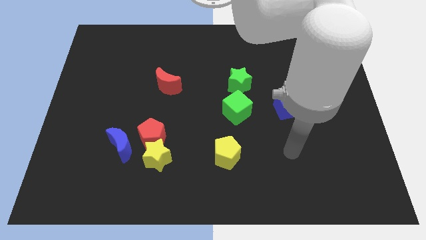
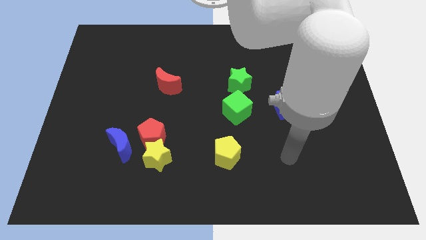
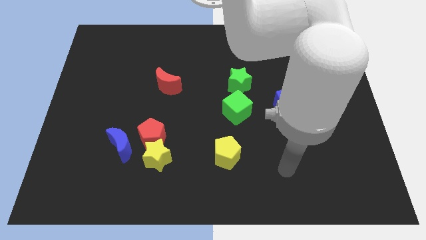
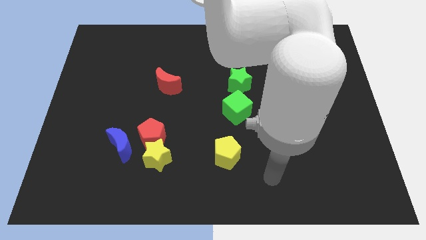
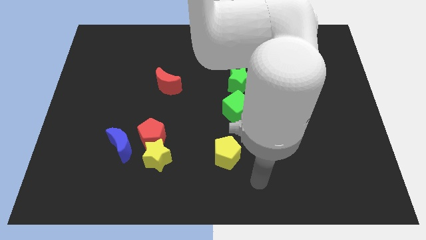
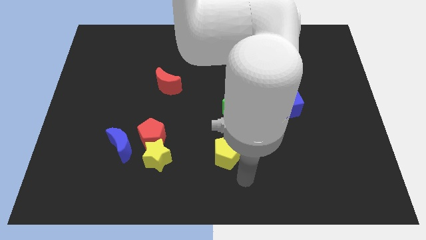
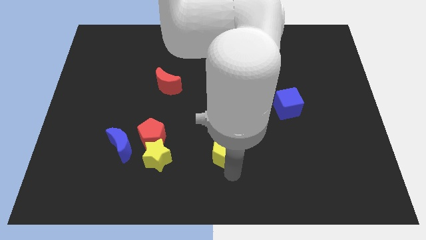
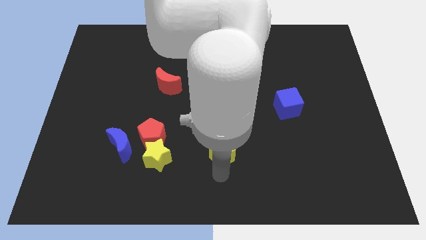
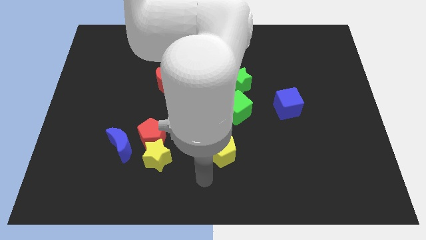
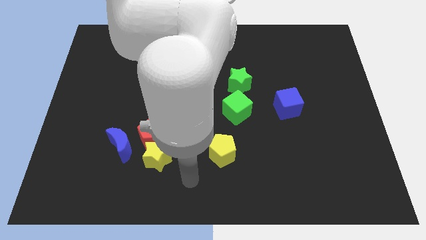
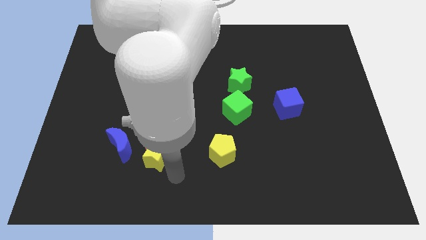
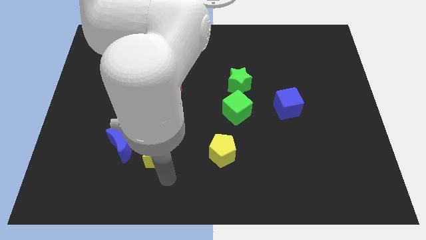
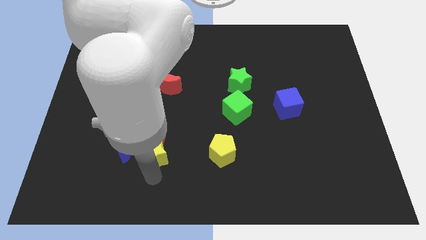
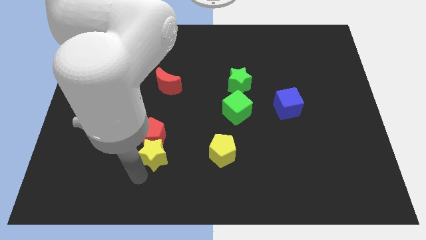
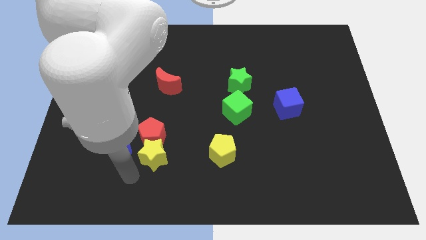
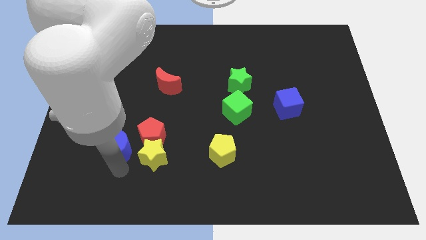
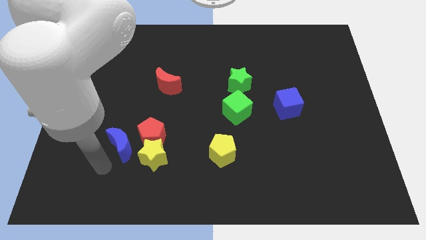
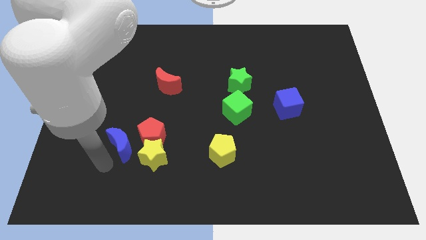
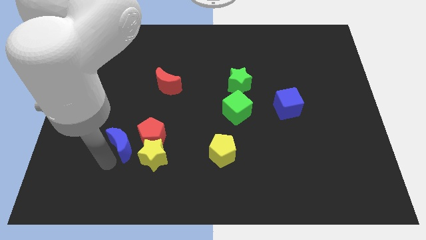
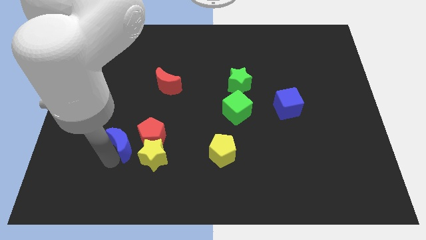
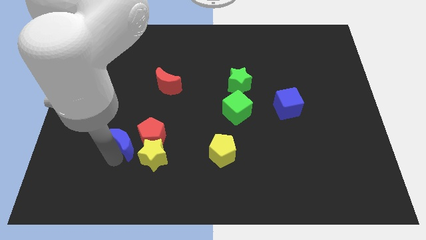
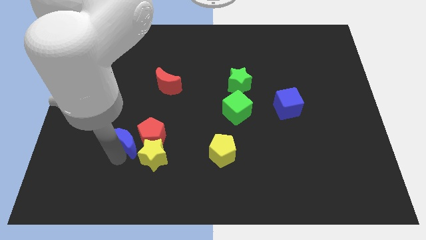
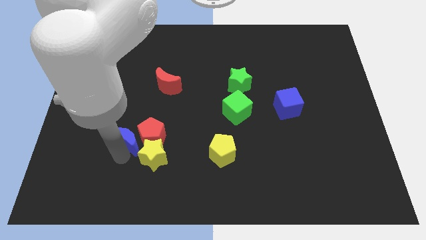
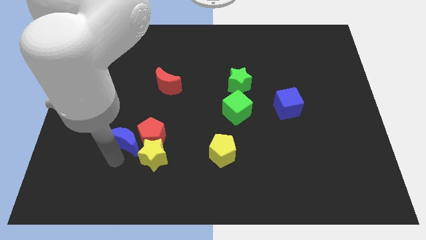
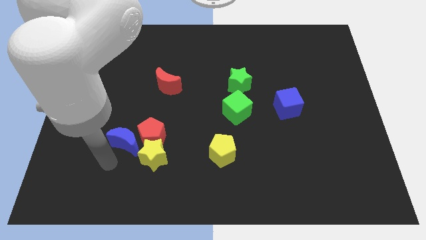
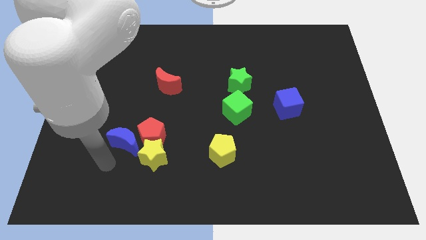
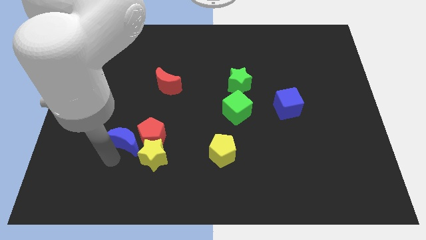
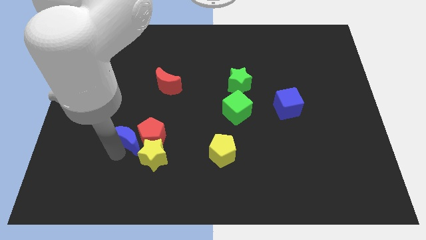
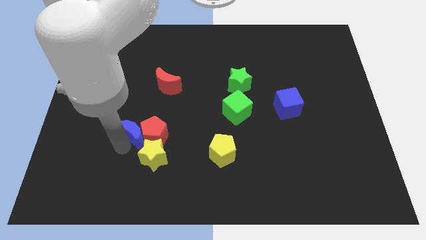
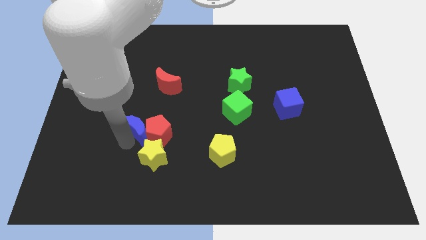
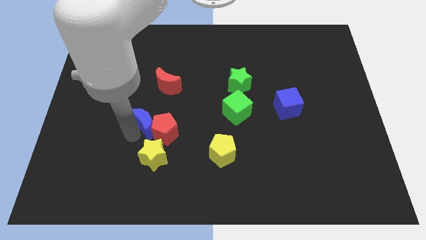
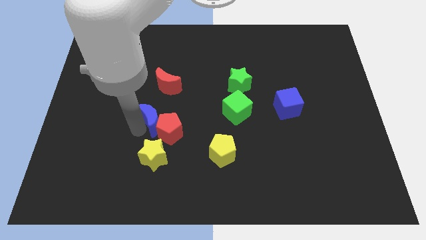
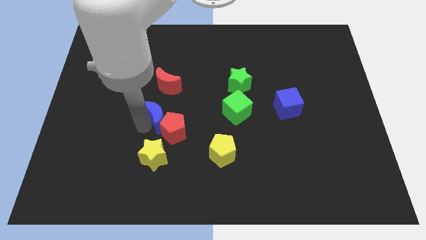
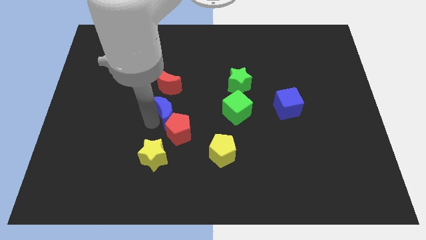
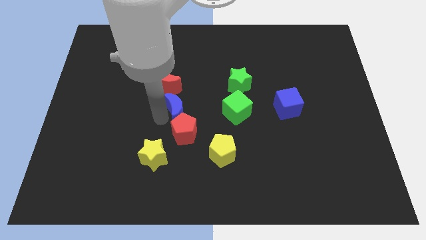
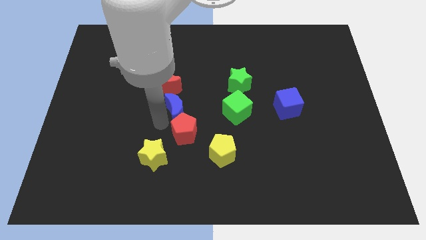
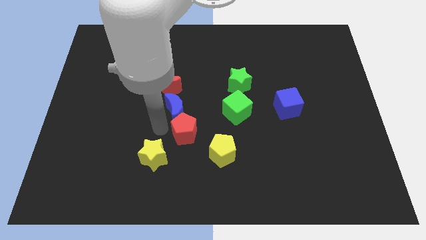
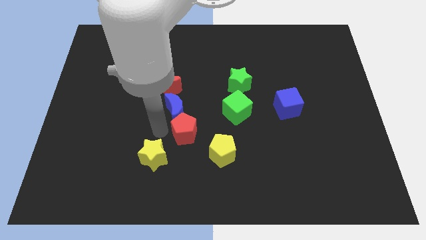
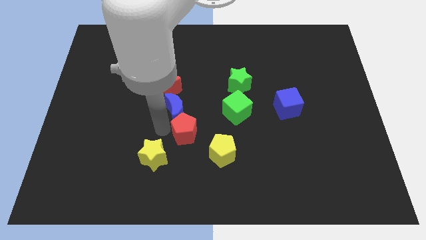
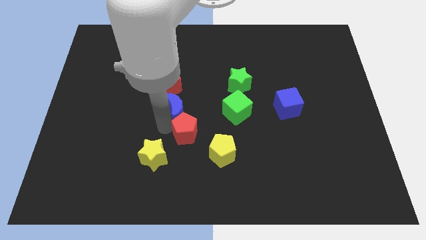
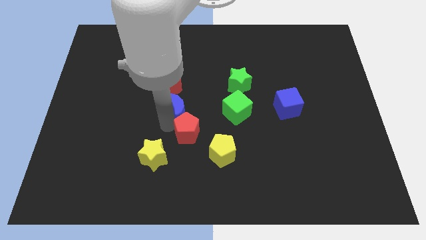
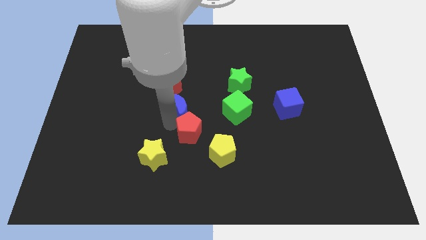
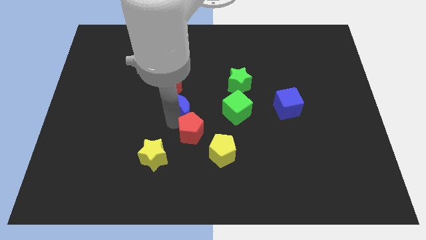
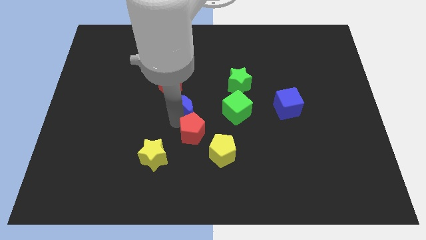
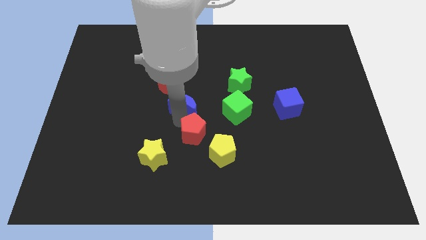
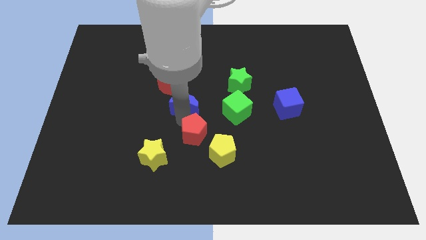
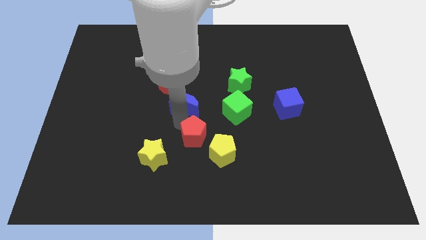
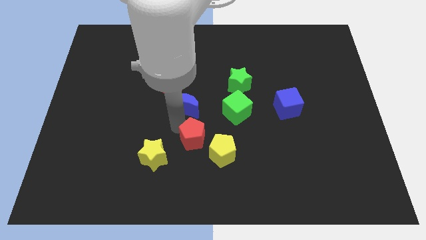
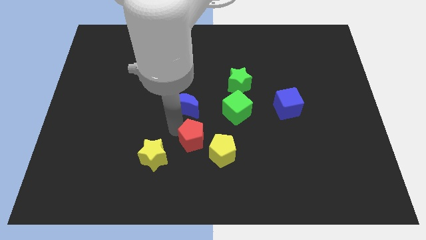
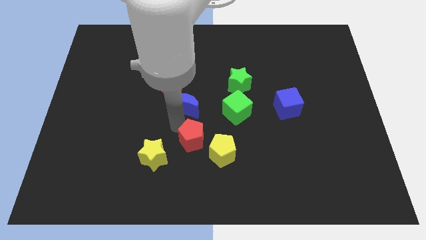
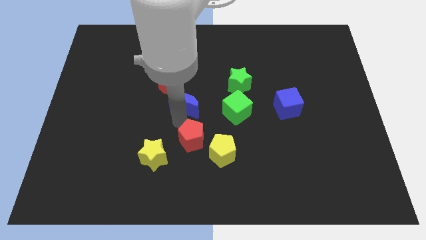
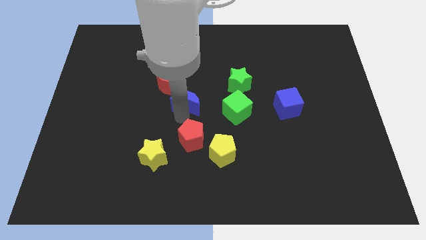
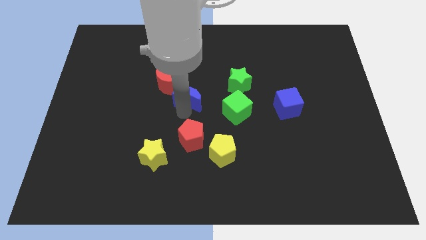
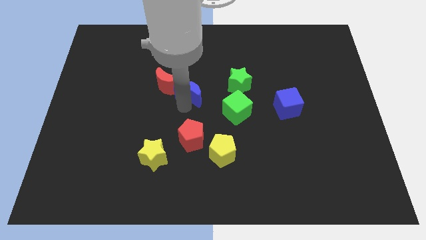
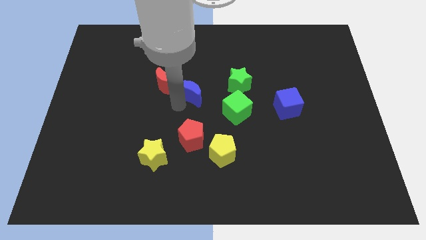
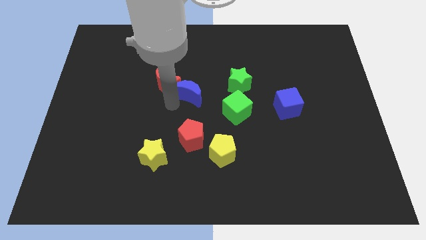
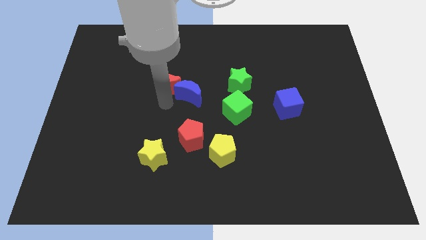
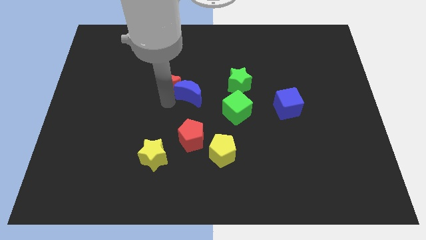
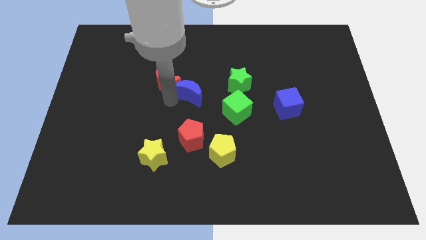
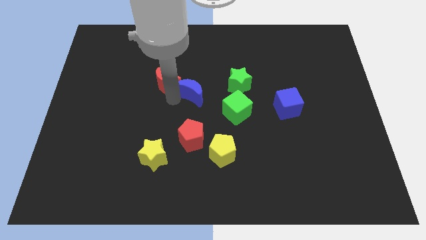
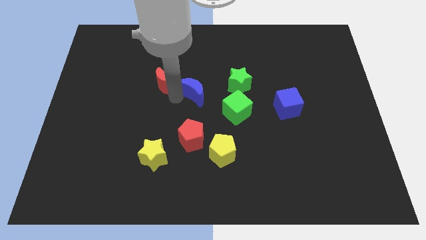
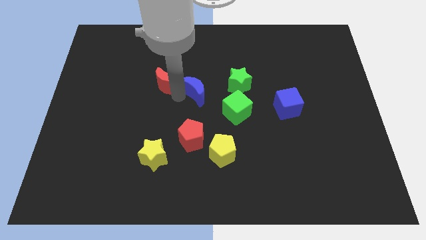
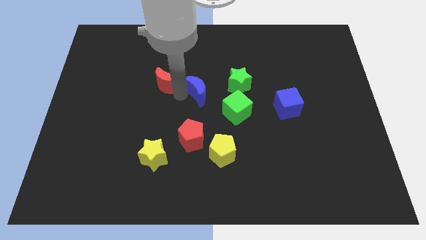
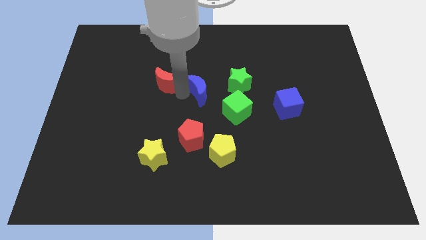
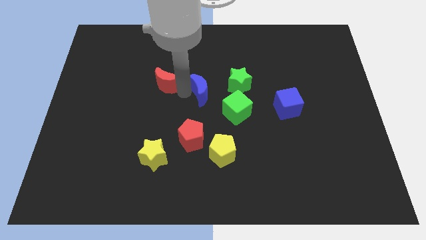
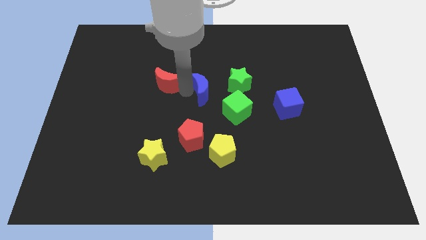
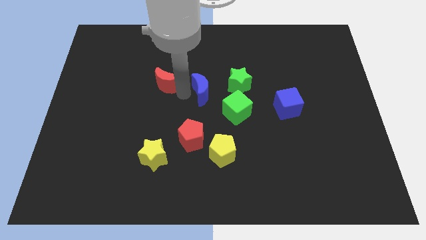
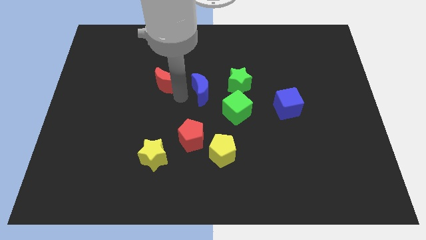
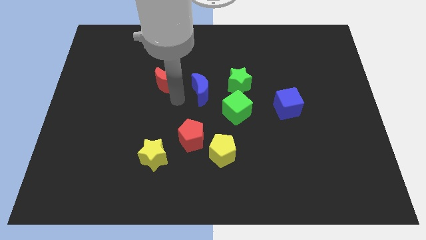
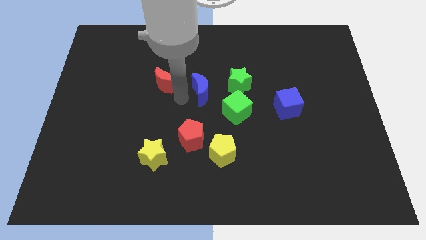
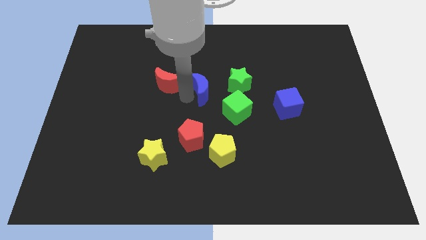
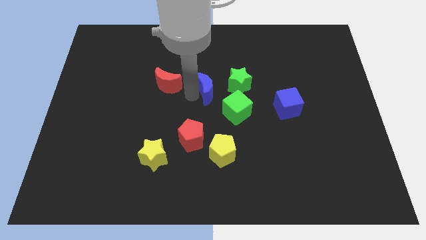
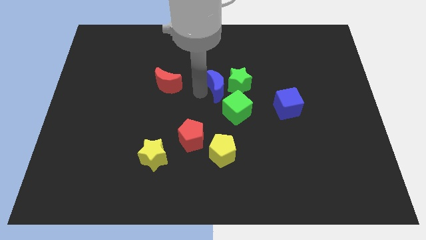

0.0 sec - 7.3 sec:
move the blue moon to the green star
